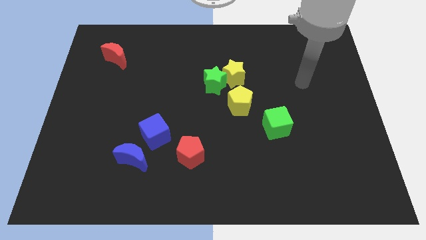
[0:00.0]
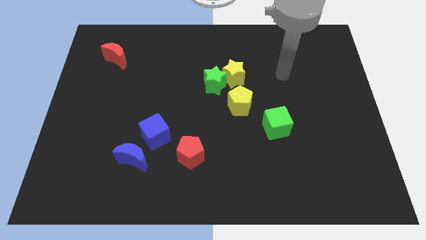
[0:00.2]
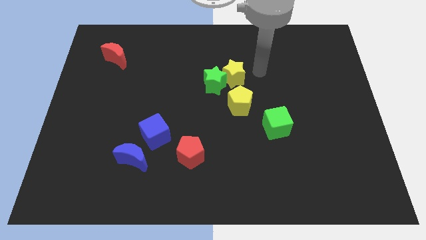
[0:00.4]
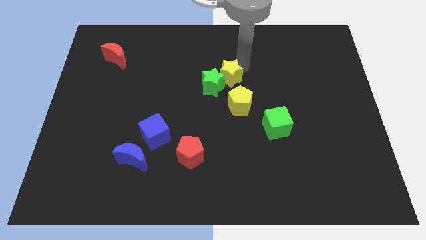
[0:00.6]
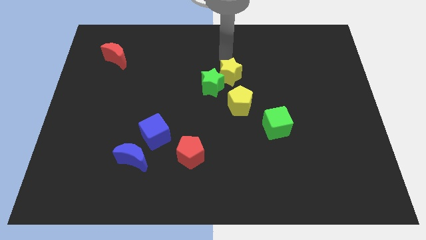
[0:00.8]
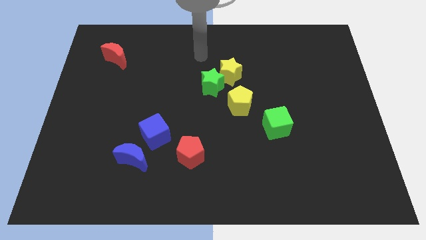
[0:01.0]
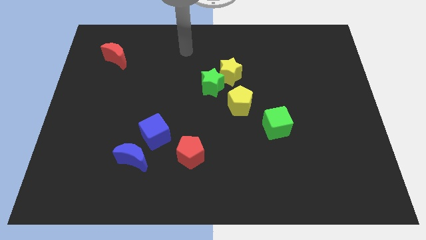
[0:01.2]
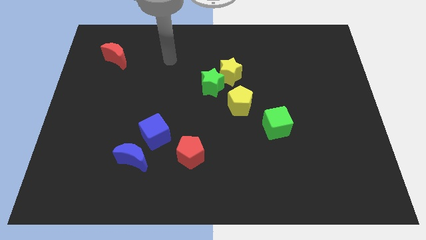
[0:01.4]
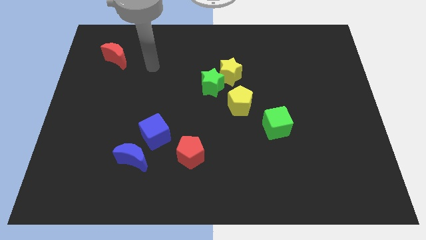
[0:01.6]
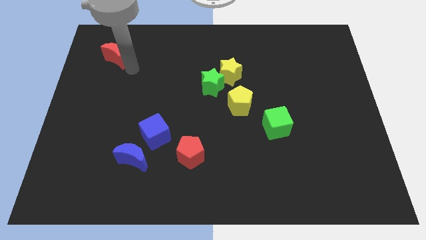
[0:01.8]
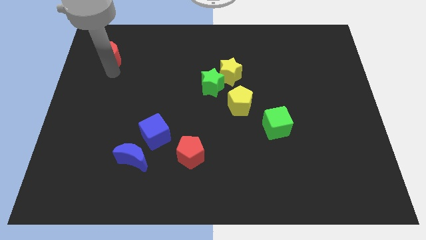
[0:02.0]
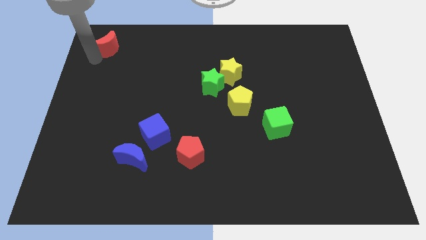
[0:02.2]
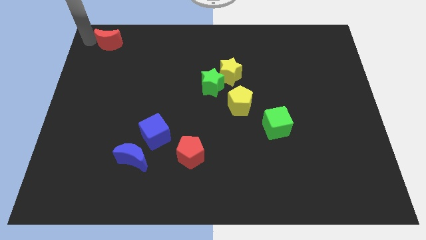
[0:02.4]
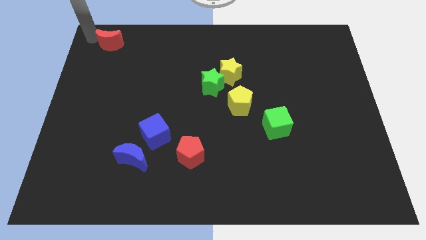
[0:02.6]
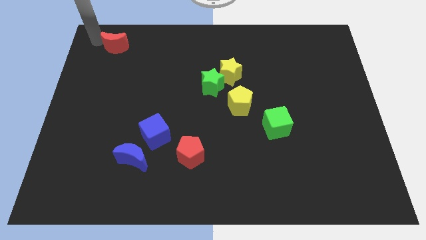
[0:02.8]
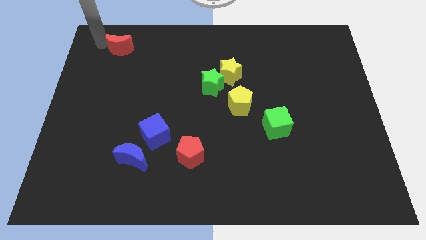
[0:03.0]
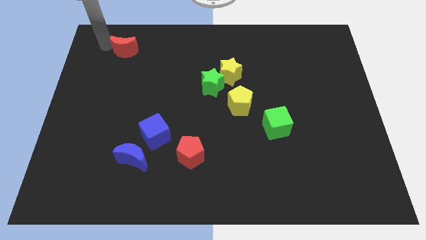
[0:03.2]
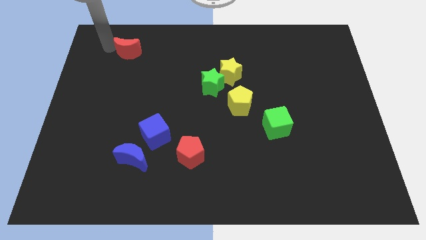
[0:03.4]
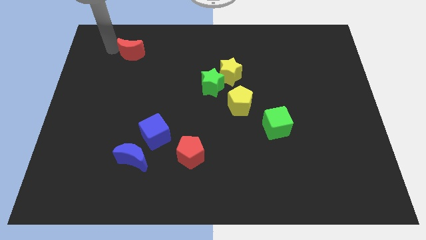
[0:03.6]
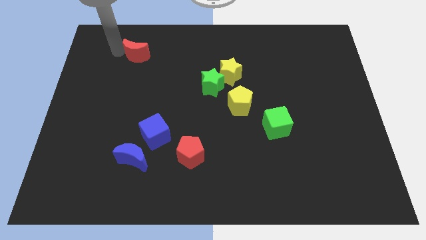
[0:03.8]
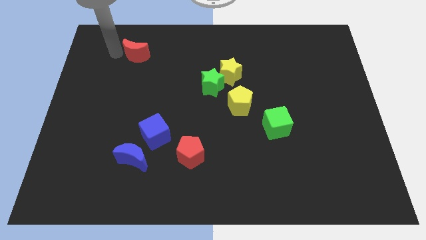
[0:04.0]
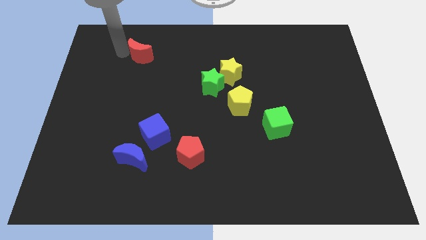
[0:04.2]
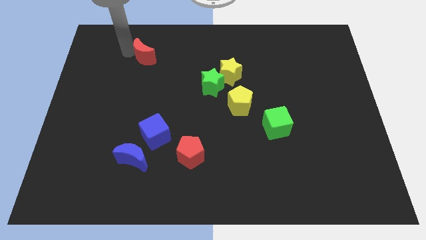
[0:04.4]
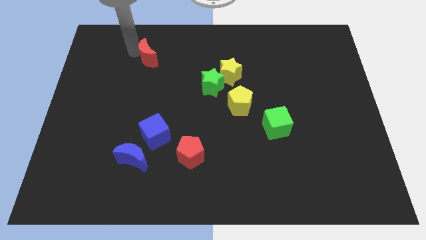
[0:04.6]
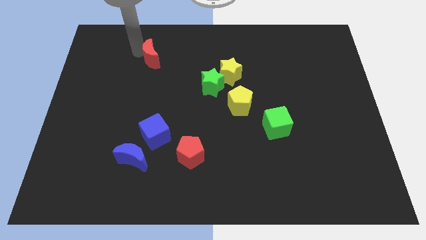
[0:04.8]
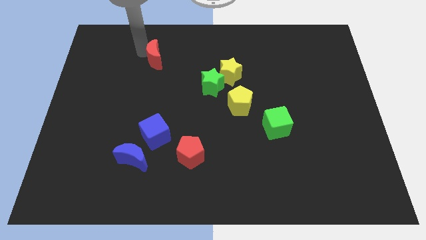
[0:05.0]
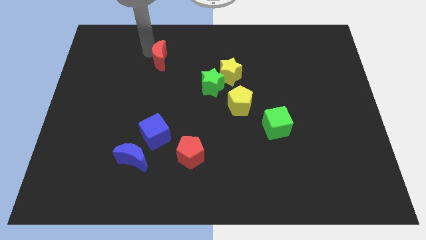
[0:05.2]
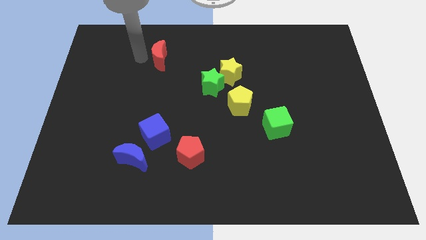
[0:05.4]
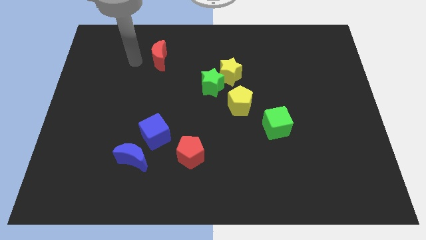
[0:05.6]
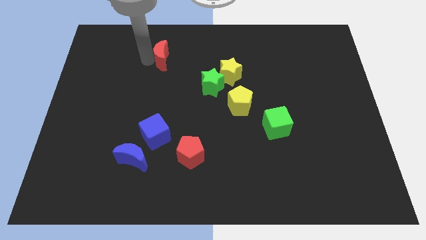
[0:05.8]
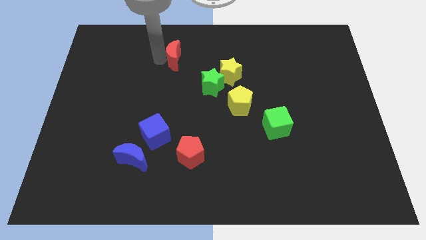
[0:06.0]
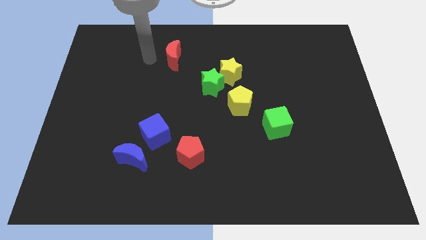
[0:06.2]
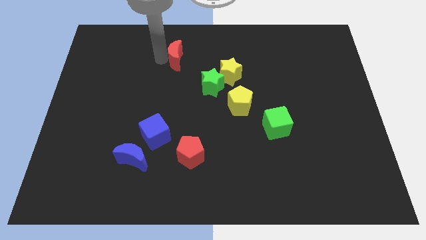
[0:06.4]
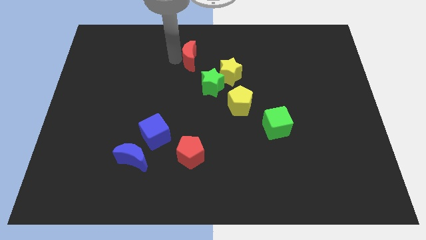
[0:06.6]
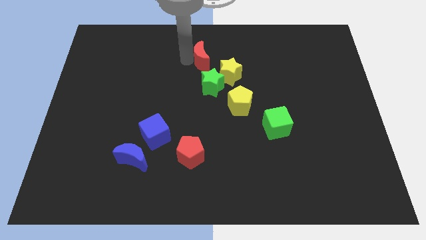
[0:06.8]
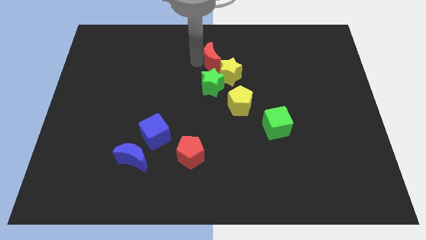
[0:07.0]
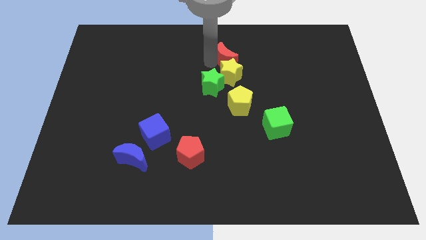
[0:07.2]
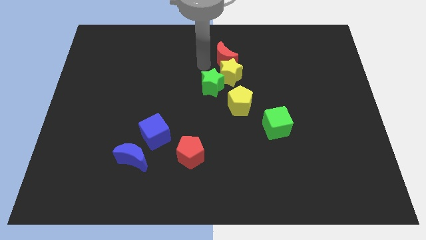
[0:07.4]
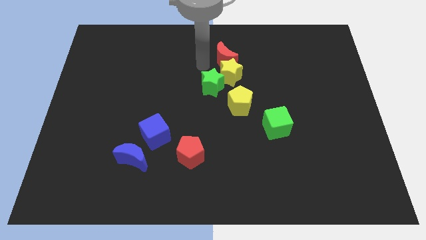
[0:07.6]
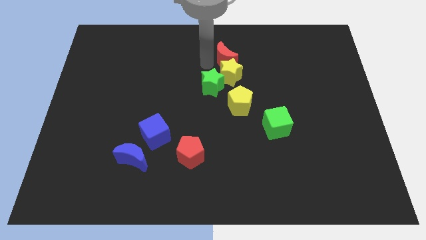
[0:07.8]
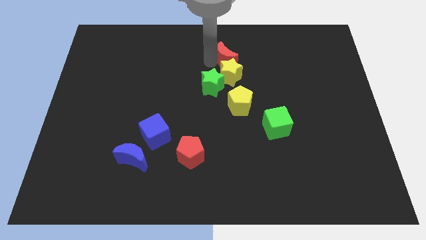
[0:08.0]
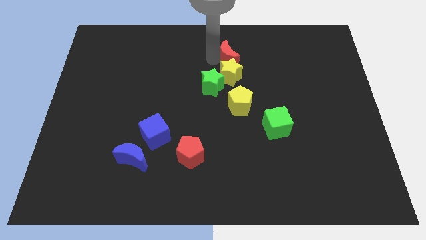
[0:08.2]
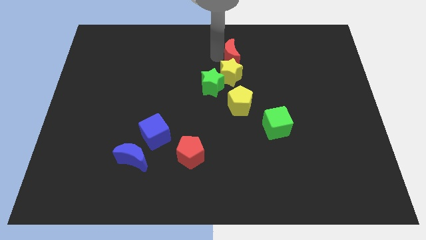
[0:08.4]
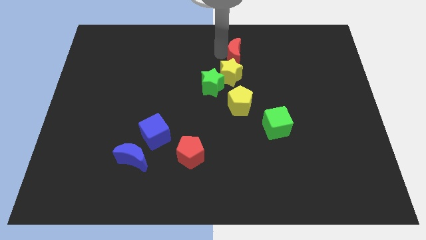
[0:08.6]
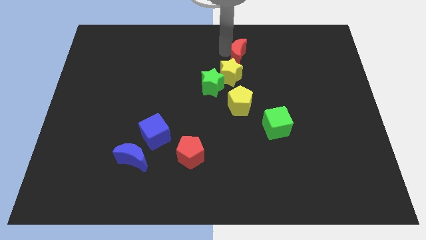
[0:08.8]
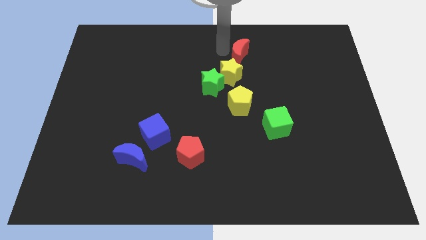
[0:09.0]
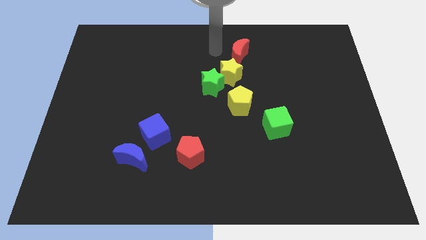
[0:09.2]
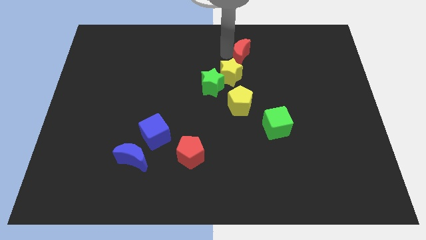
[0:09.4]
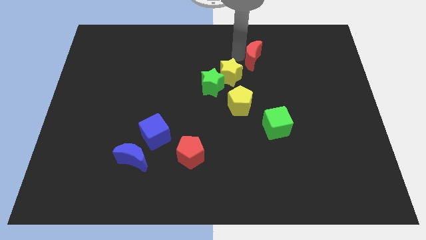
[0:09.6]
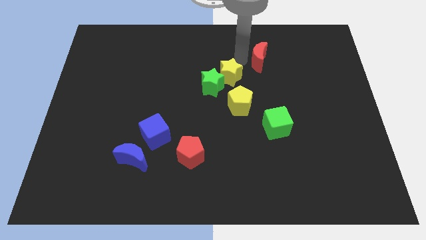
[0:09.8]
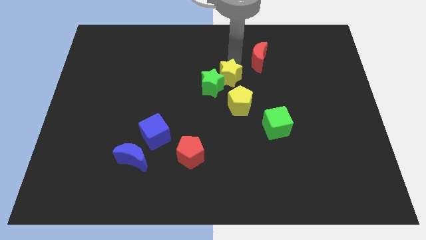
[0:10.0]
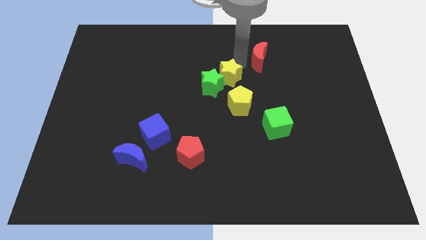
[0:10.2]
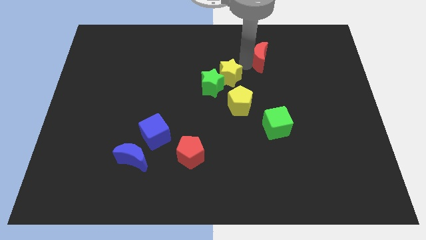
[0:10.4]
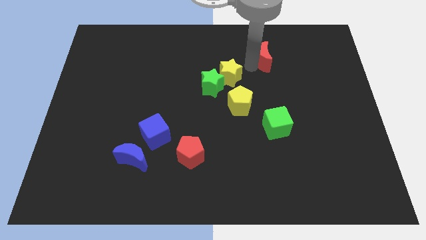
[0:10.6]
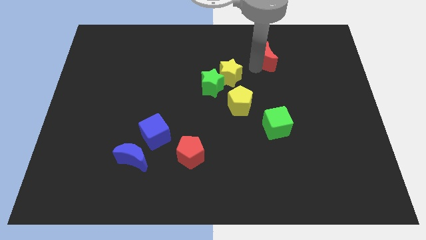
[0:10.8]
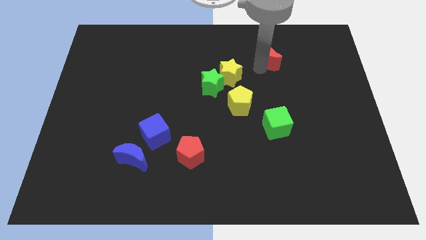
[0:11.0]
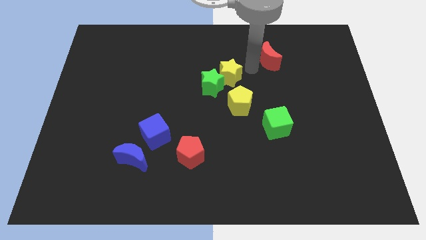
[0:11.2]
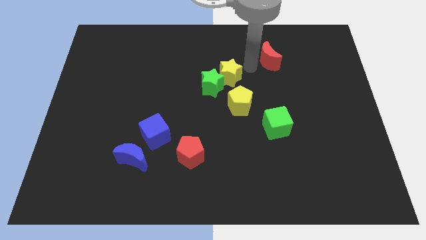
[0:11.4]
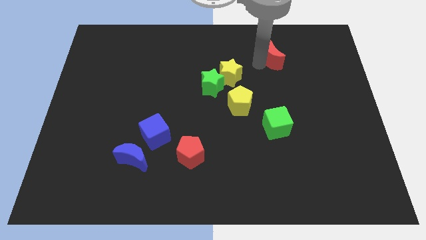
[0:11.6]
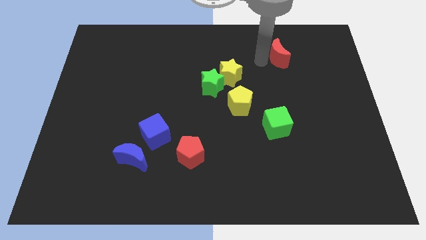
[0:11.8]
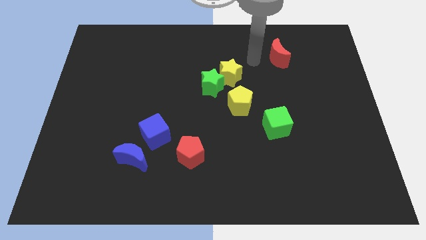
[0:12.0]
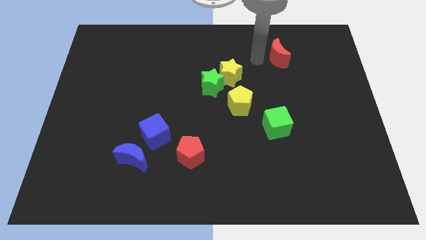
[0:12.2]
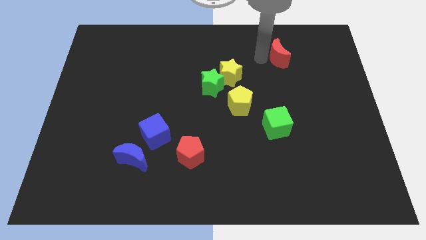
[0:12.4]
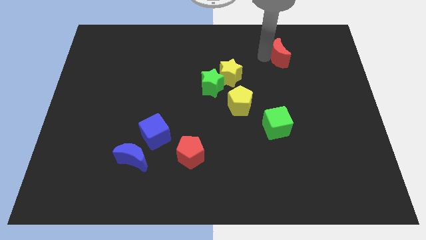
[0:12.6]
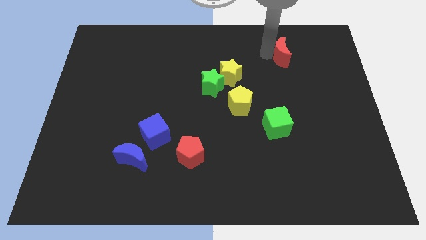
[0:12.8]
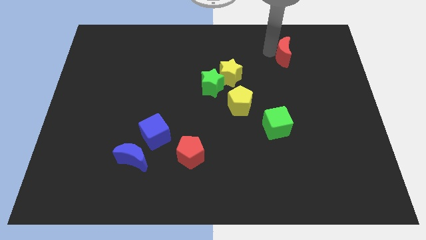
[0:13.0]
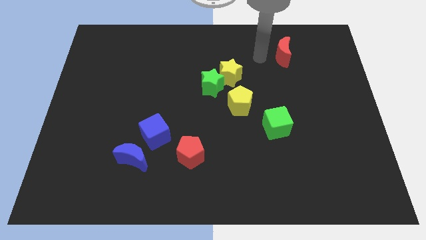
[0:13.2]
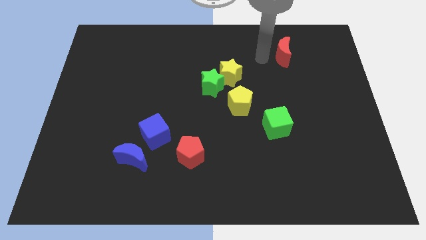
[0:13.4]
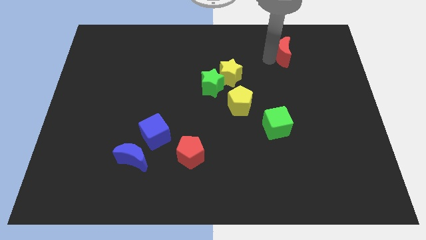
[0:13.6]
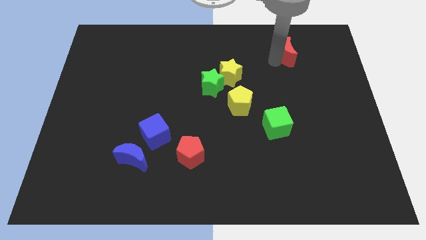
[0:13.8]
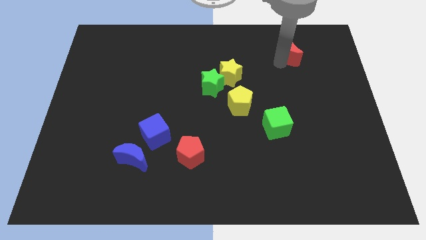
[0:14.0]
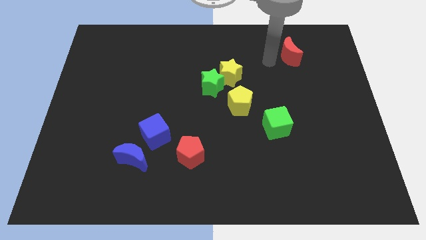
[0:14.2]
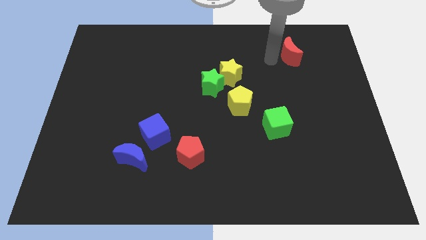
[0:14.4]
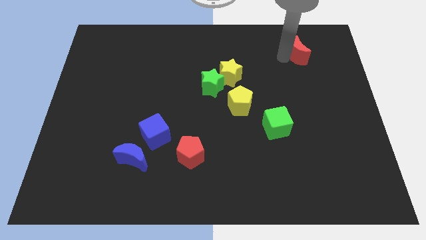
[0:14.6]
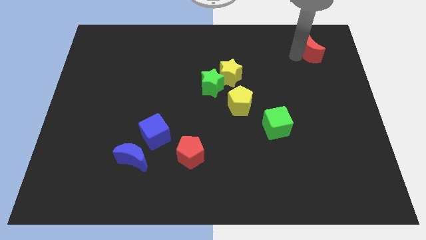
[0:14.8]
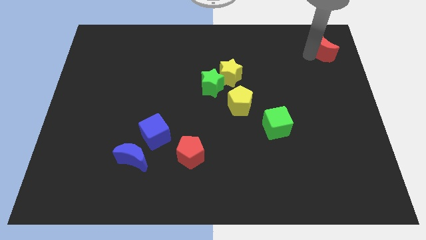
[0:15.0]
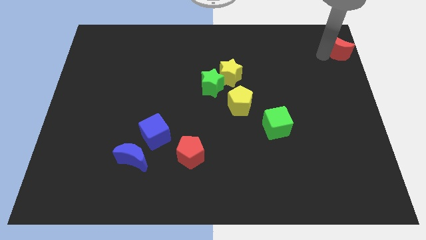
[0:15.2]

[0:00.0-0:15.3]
slide the red moon to the upper right corner
